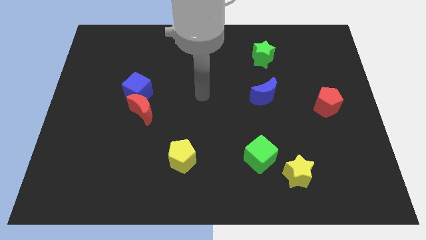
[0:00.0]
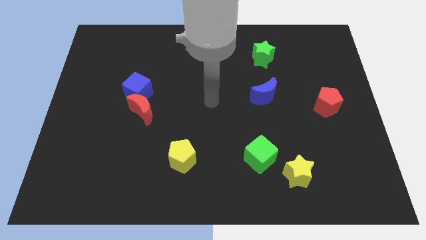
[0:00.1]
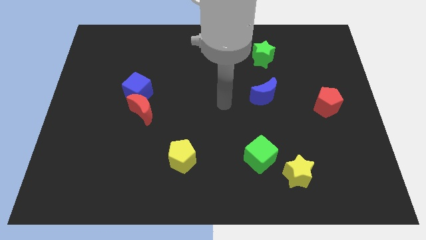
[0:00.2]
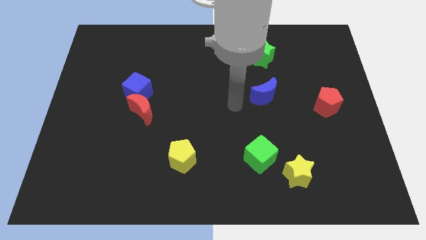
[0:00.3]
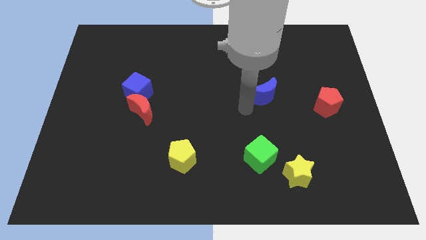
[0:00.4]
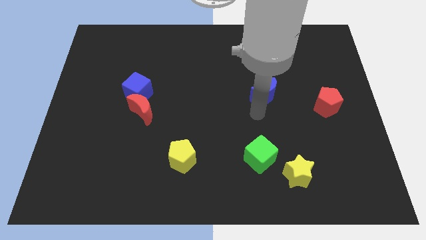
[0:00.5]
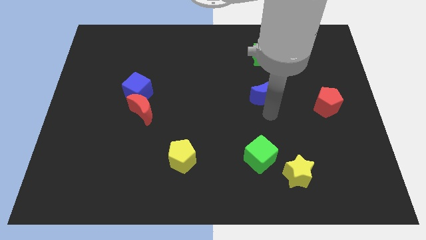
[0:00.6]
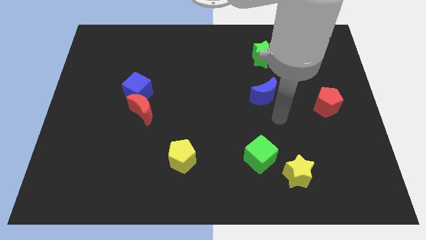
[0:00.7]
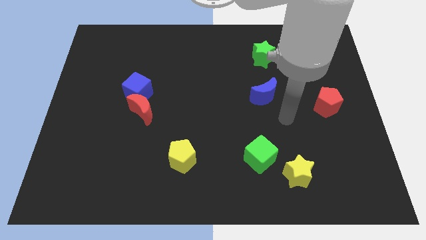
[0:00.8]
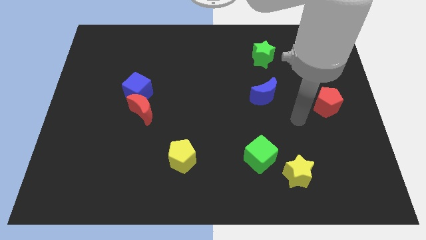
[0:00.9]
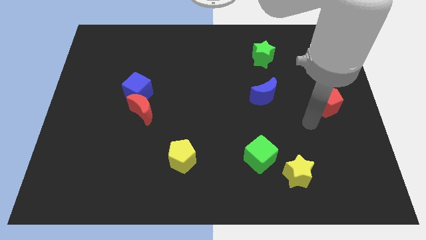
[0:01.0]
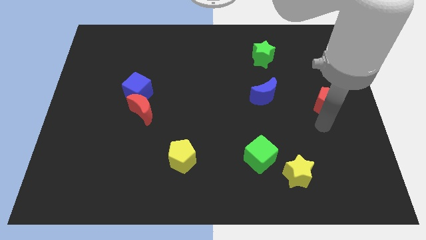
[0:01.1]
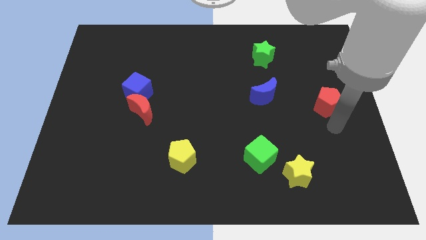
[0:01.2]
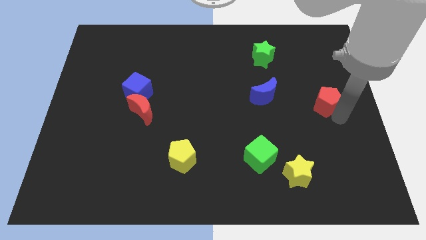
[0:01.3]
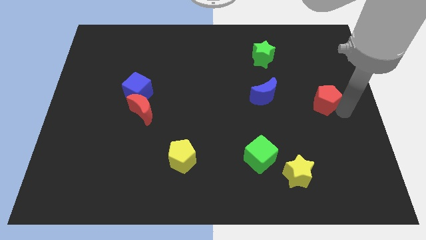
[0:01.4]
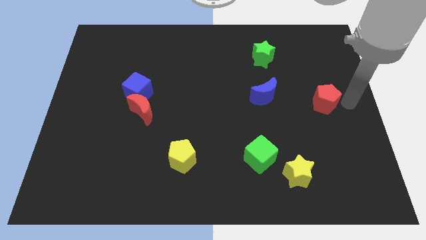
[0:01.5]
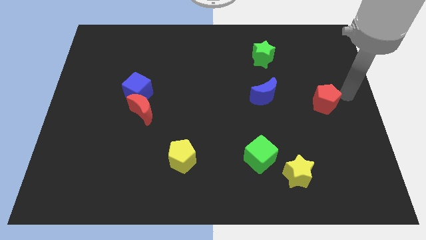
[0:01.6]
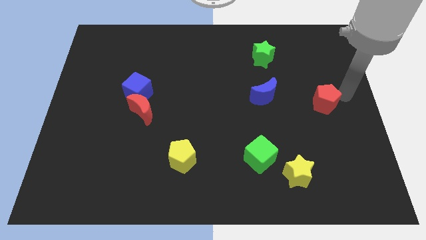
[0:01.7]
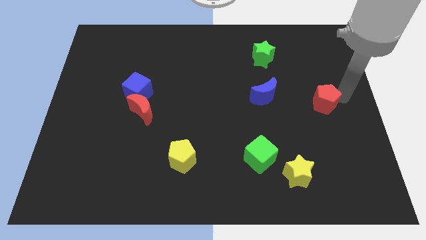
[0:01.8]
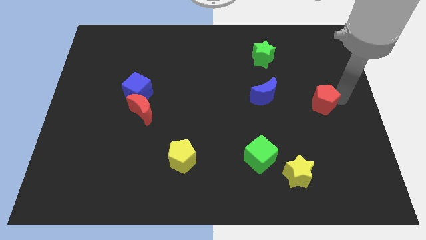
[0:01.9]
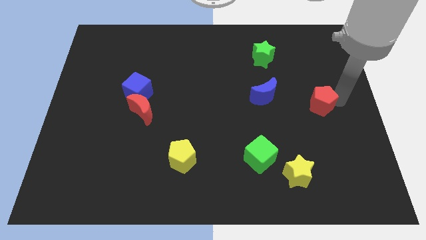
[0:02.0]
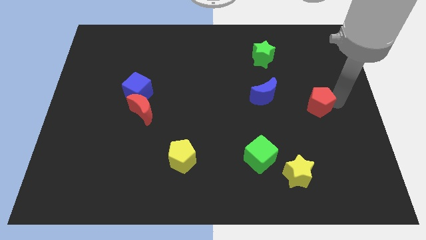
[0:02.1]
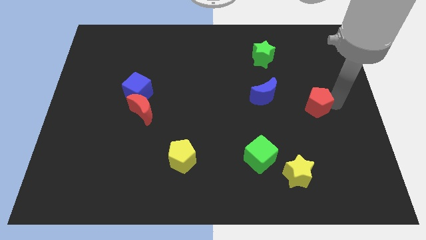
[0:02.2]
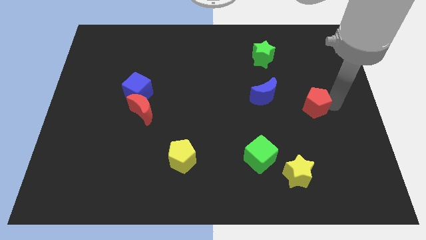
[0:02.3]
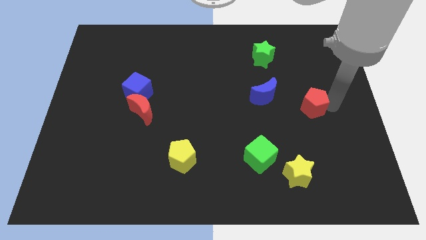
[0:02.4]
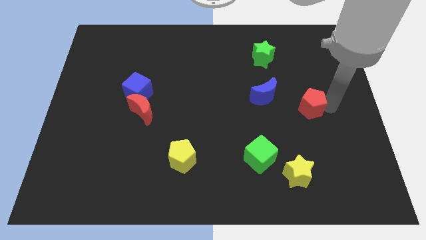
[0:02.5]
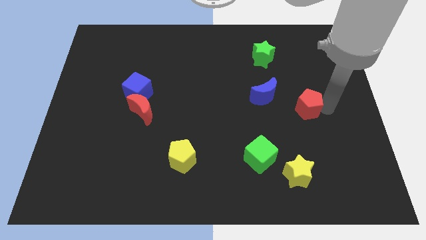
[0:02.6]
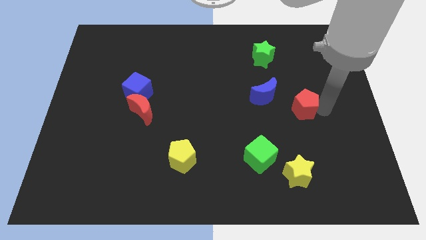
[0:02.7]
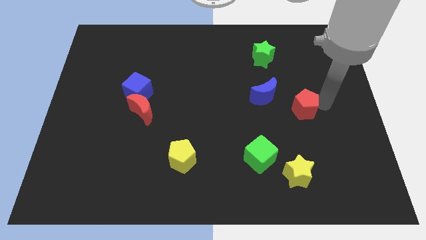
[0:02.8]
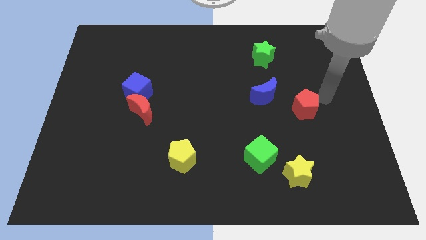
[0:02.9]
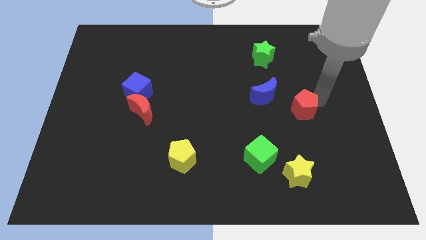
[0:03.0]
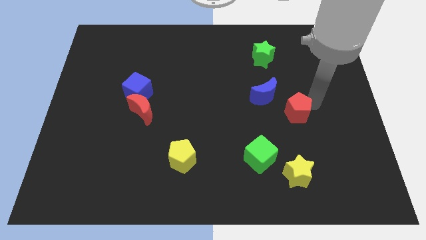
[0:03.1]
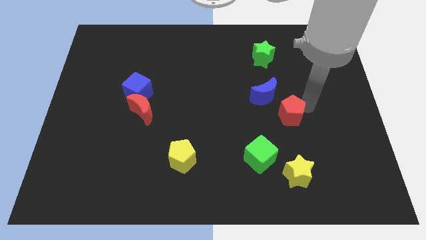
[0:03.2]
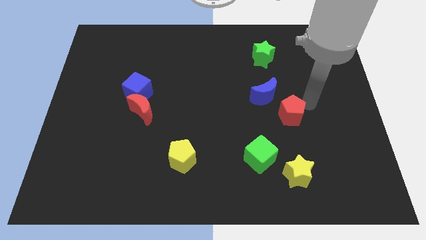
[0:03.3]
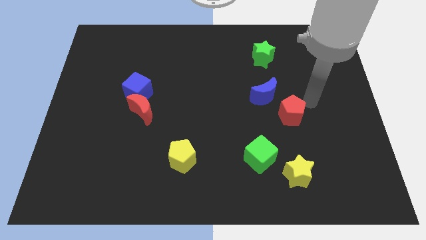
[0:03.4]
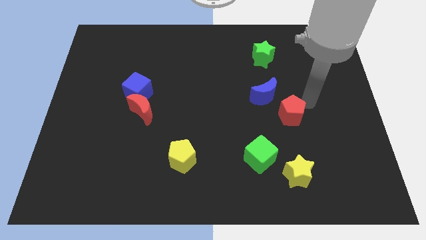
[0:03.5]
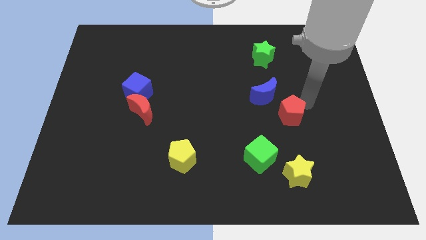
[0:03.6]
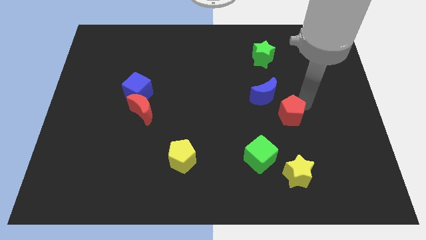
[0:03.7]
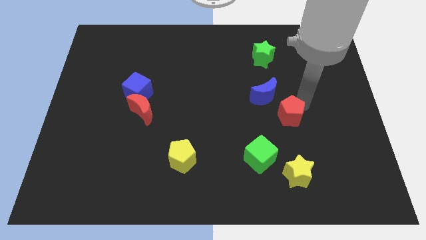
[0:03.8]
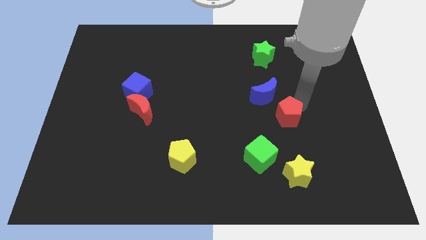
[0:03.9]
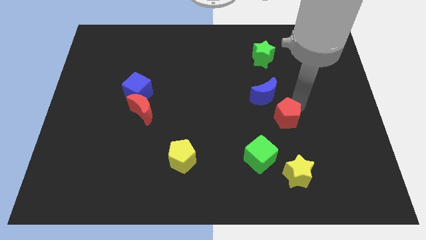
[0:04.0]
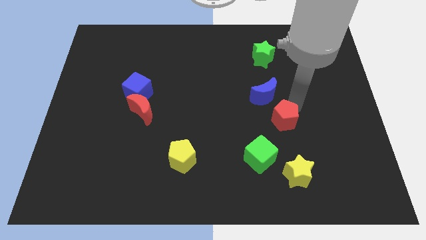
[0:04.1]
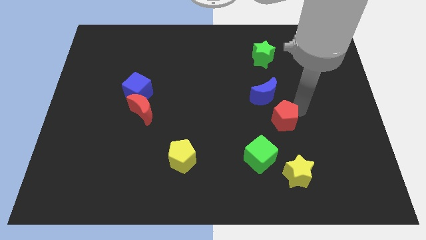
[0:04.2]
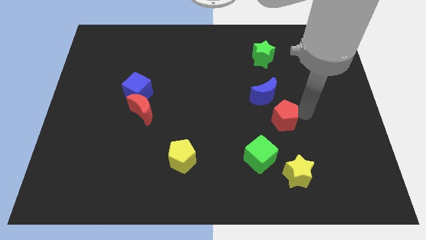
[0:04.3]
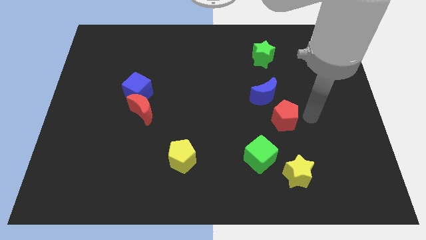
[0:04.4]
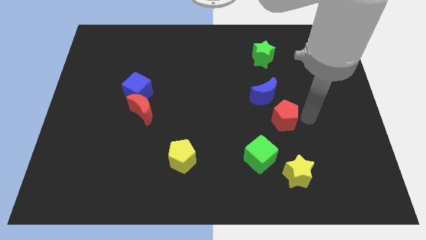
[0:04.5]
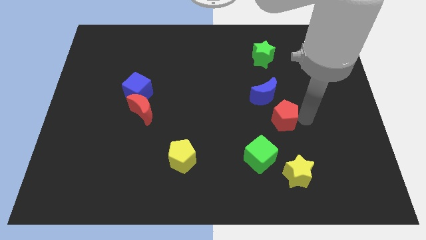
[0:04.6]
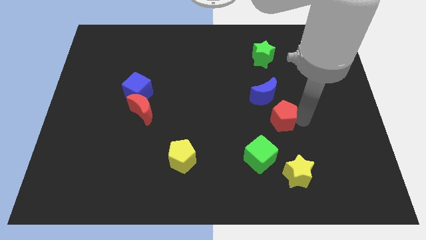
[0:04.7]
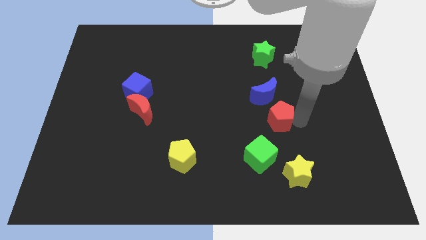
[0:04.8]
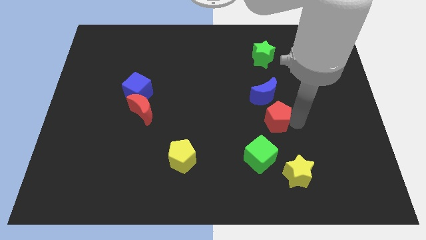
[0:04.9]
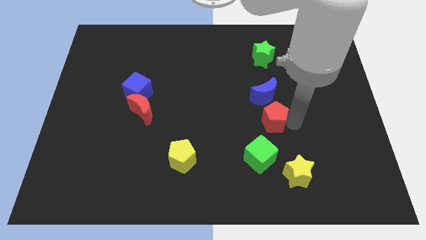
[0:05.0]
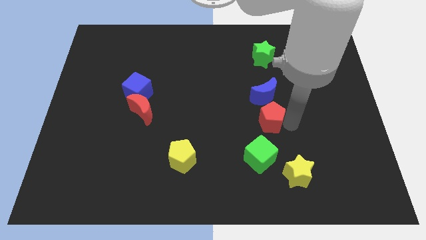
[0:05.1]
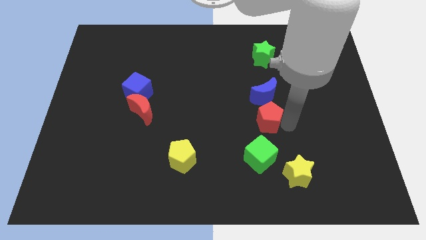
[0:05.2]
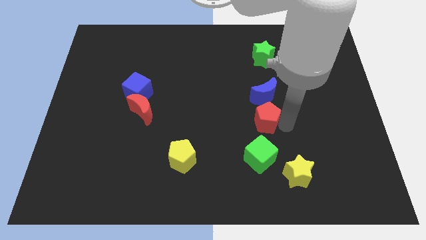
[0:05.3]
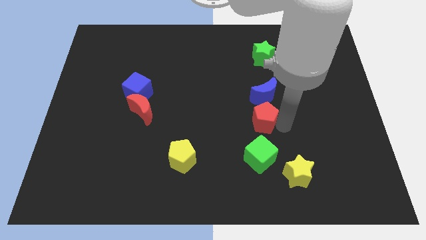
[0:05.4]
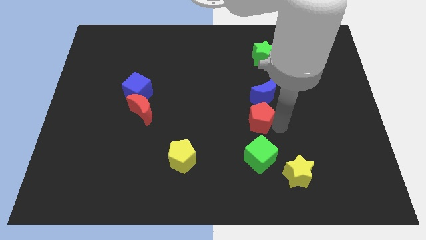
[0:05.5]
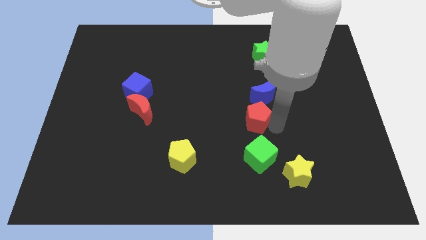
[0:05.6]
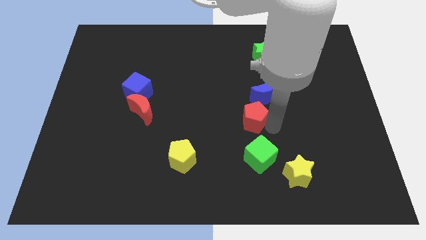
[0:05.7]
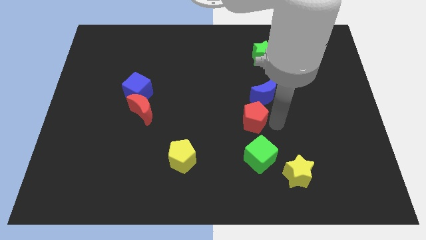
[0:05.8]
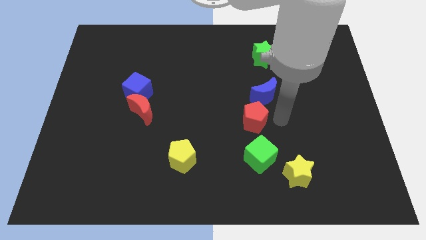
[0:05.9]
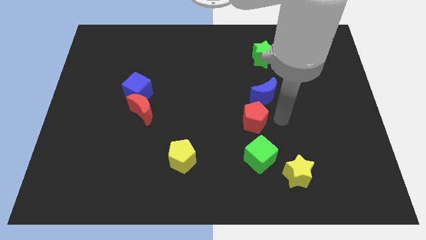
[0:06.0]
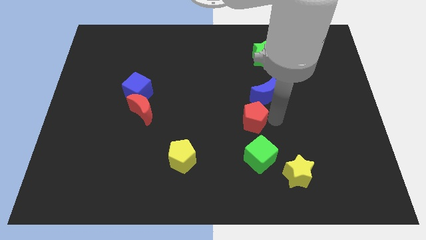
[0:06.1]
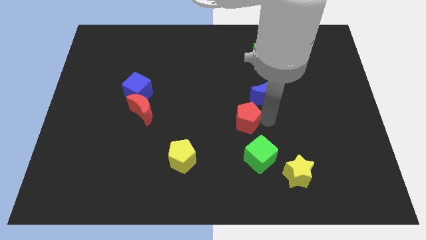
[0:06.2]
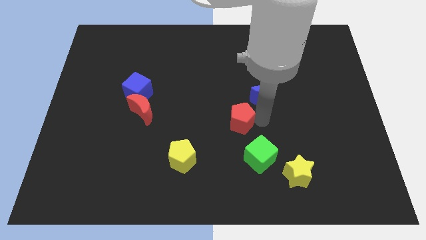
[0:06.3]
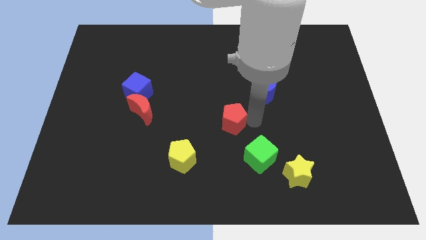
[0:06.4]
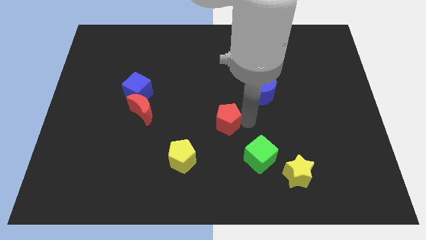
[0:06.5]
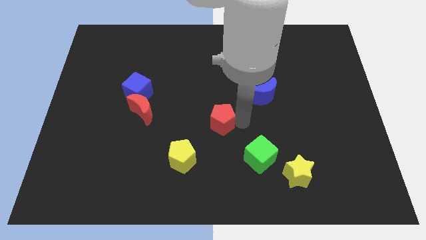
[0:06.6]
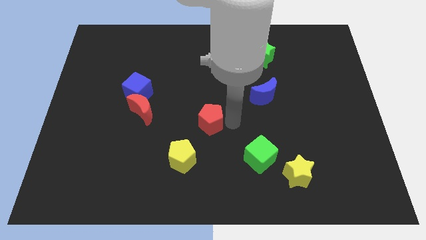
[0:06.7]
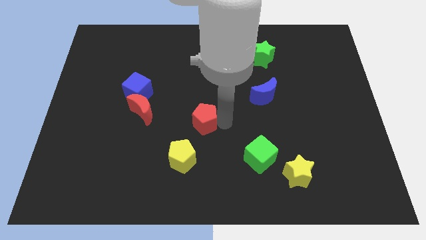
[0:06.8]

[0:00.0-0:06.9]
move the red pentagon to the top of the yellow pentagon

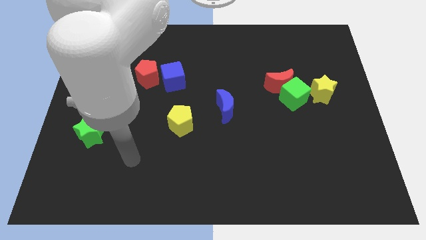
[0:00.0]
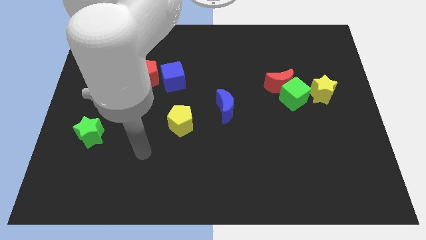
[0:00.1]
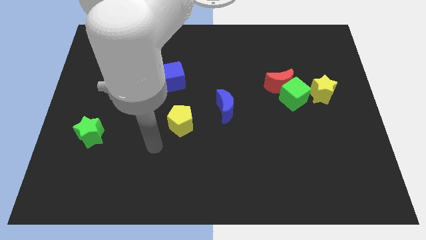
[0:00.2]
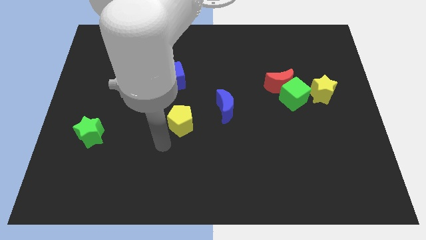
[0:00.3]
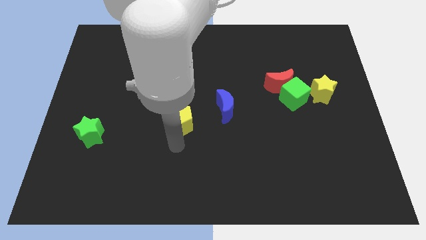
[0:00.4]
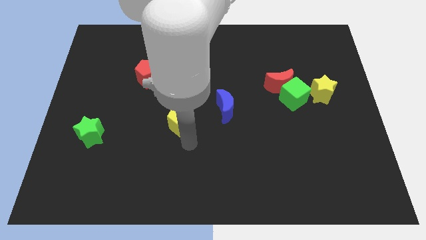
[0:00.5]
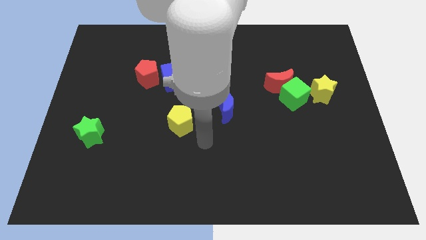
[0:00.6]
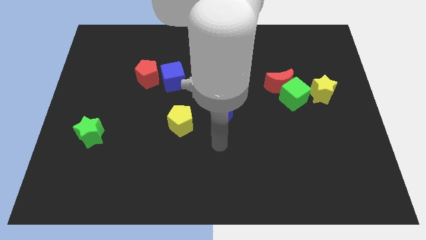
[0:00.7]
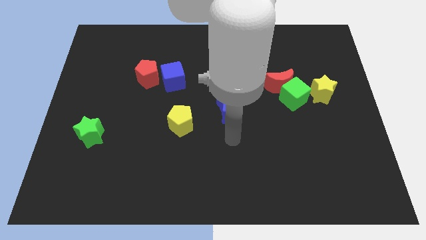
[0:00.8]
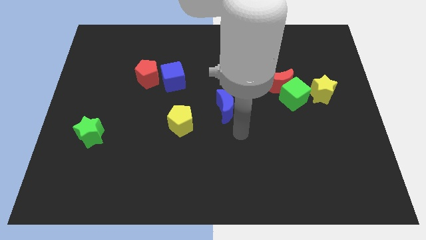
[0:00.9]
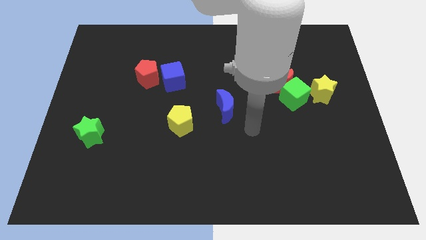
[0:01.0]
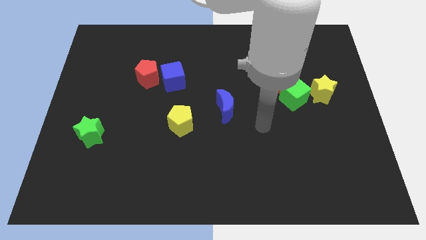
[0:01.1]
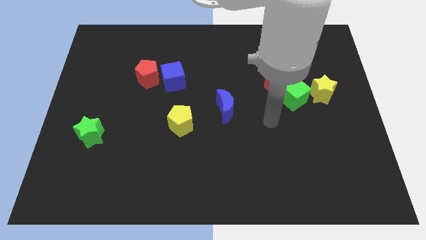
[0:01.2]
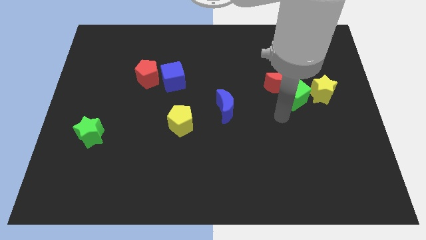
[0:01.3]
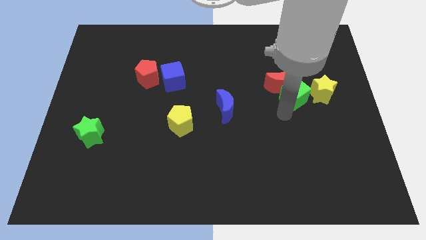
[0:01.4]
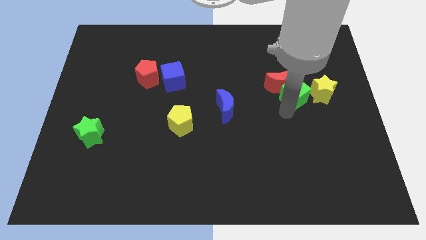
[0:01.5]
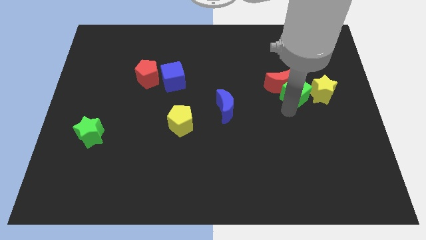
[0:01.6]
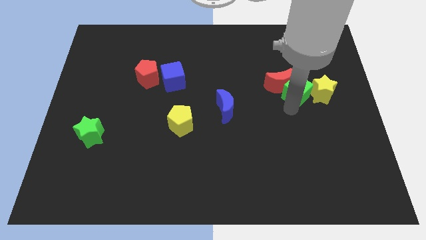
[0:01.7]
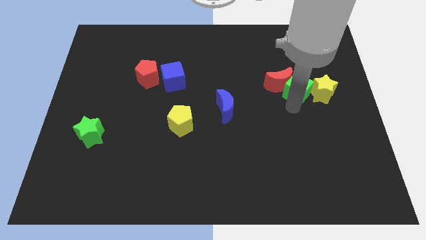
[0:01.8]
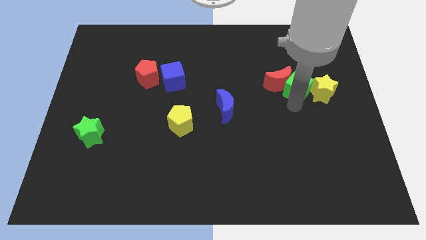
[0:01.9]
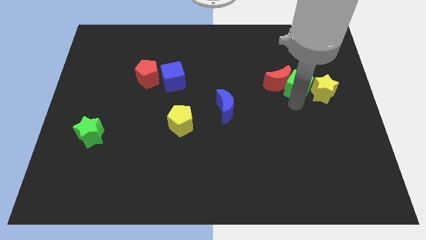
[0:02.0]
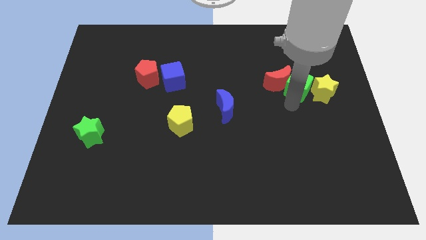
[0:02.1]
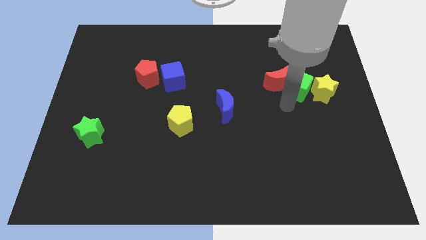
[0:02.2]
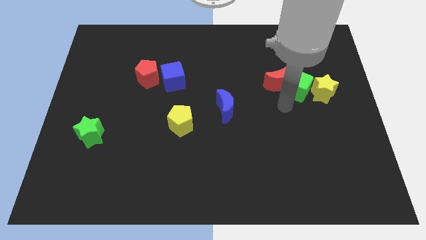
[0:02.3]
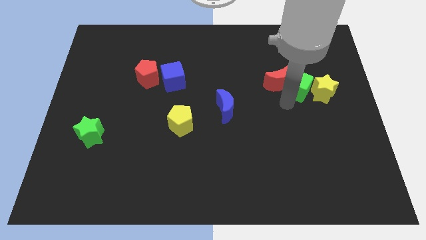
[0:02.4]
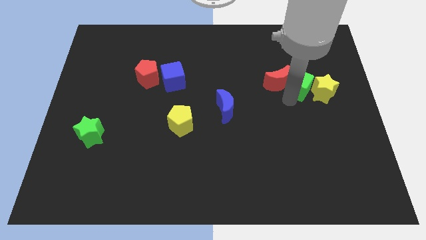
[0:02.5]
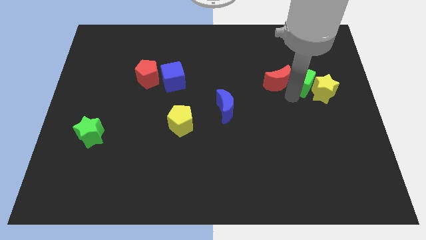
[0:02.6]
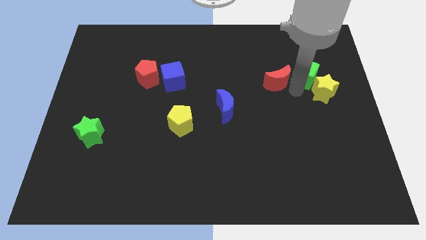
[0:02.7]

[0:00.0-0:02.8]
move the green cube above the yellow star
